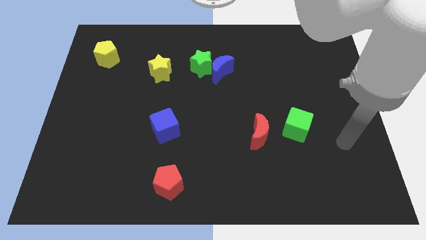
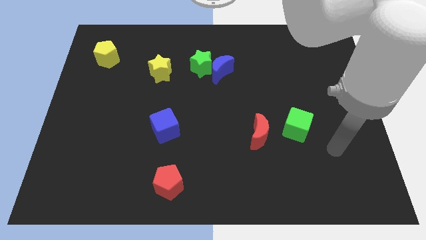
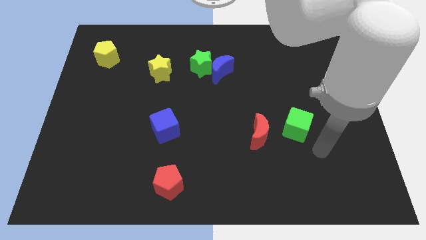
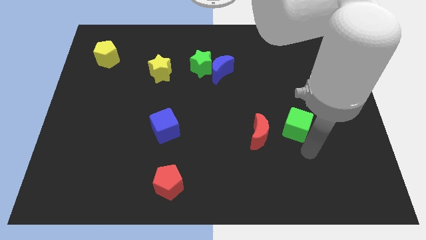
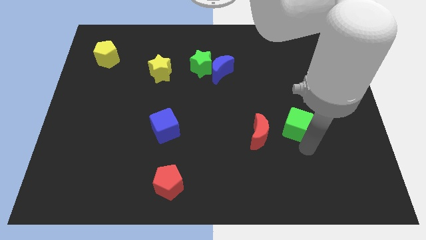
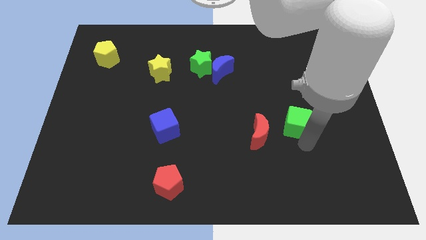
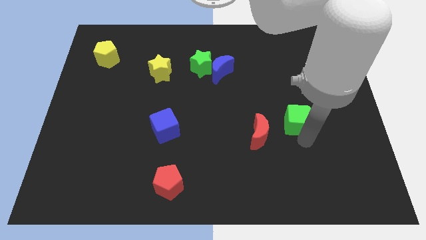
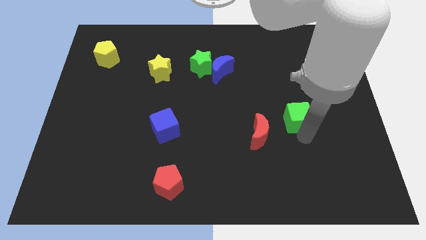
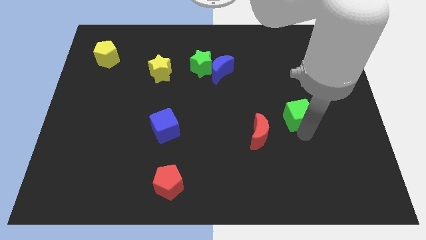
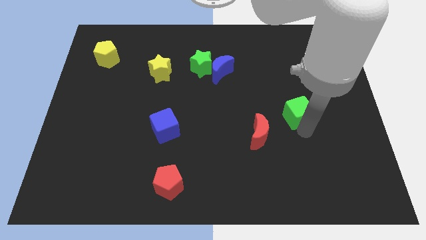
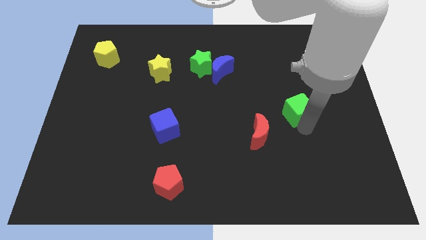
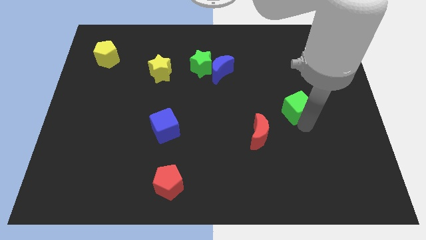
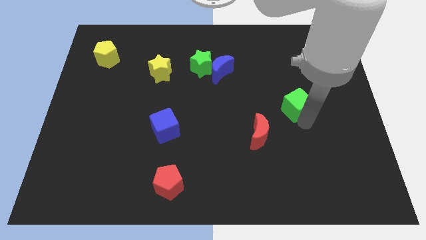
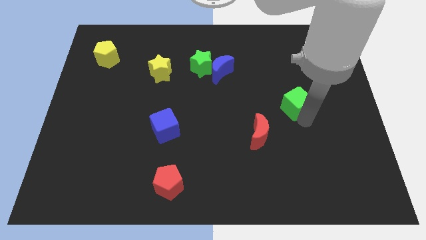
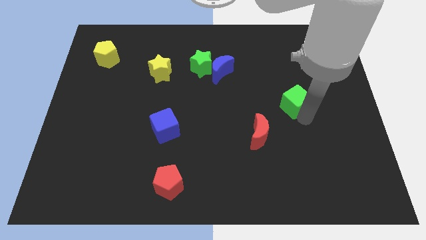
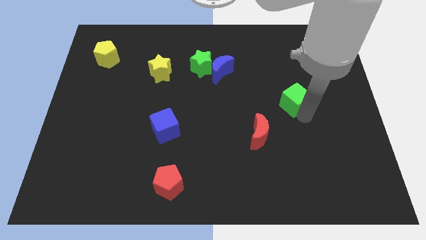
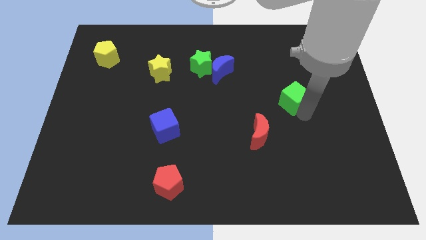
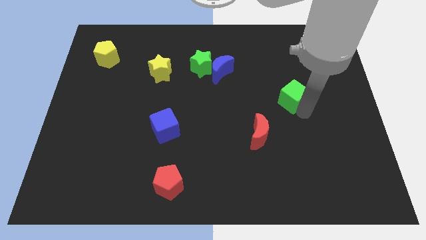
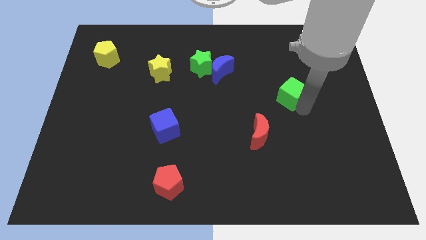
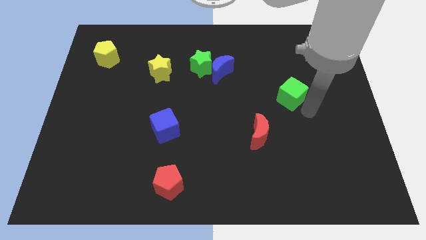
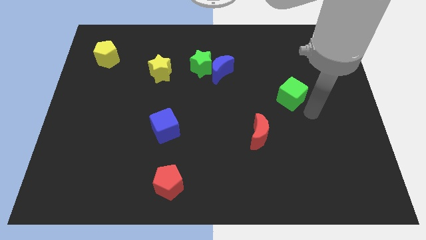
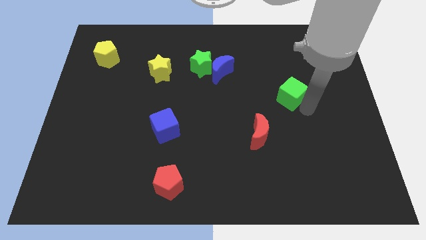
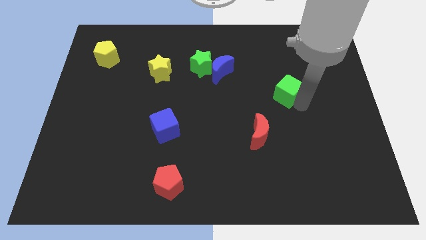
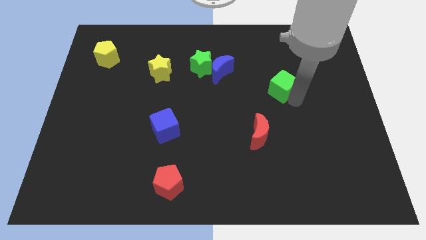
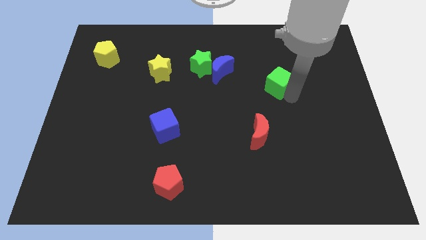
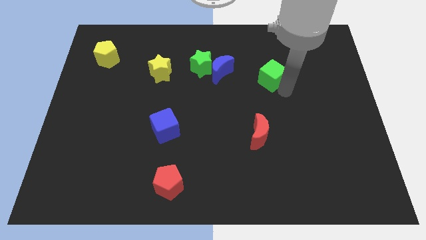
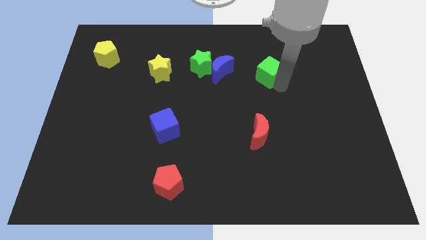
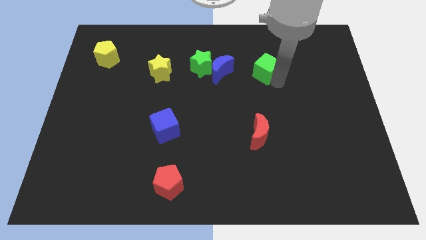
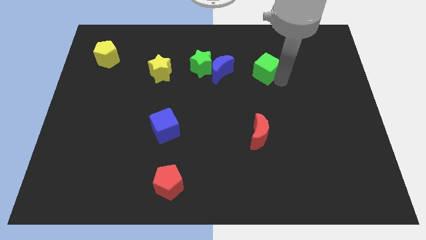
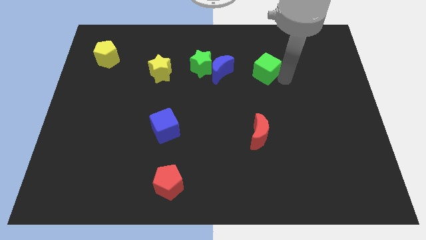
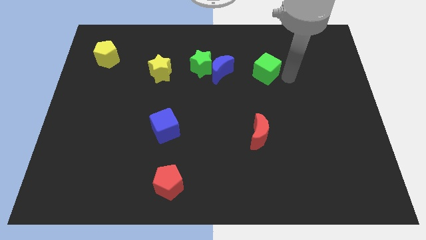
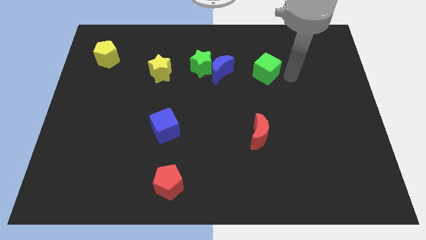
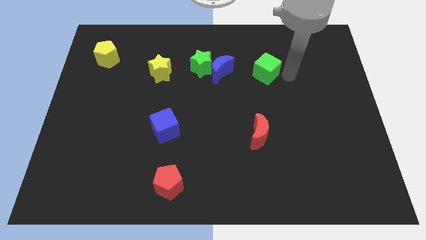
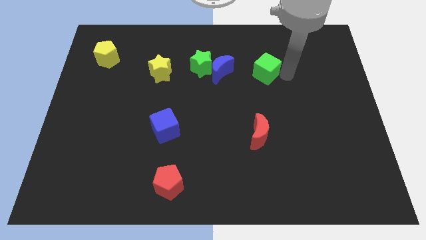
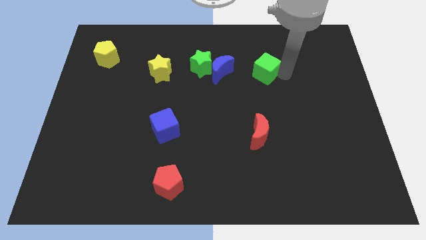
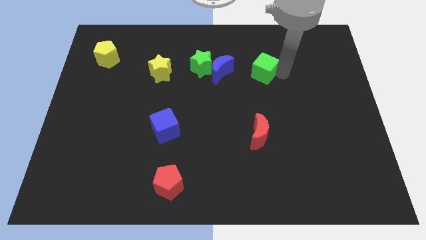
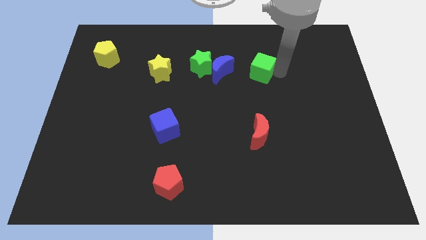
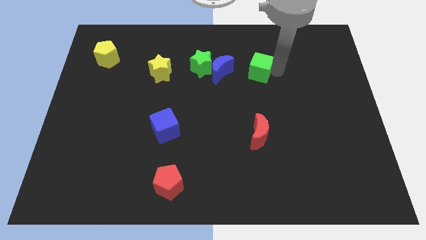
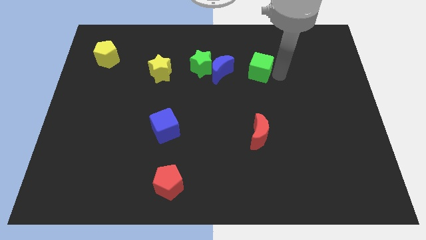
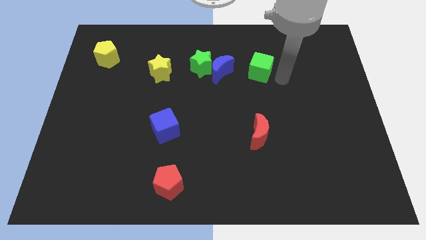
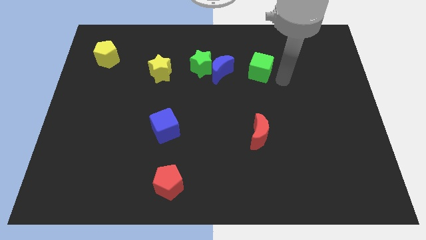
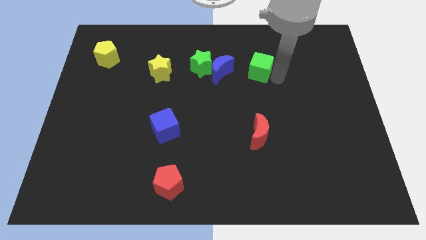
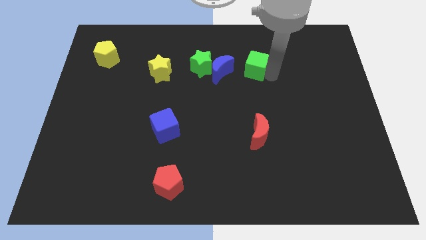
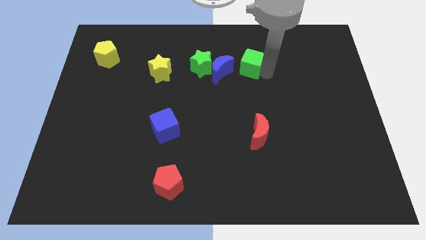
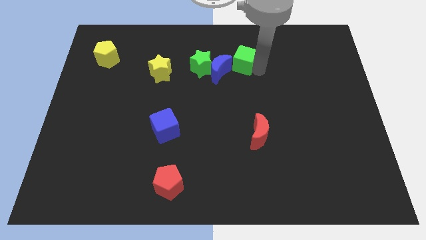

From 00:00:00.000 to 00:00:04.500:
push the green cube upwards and left

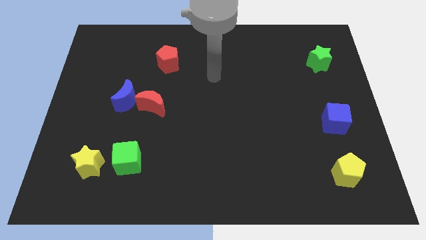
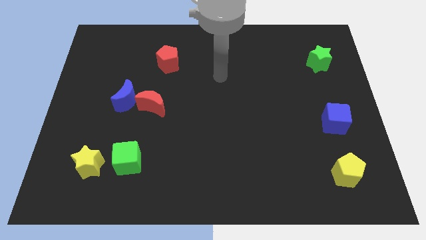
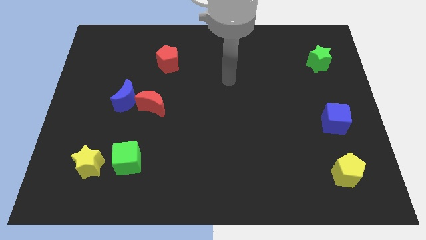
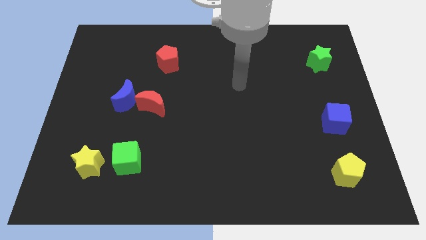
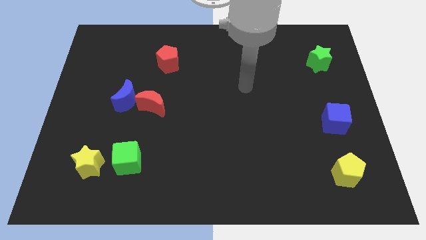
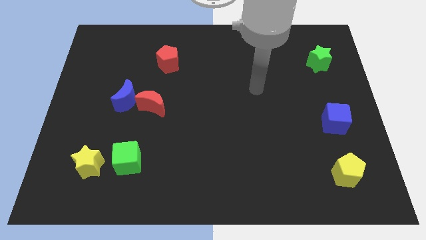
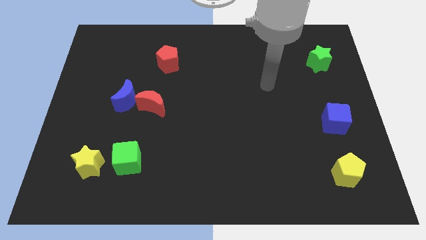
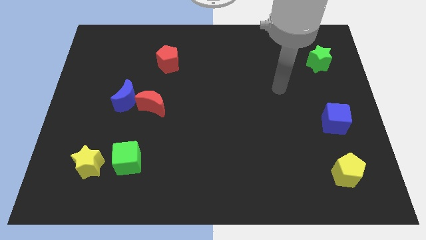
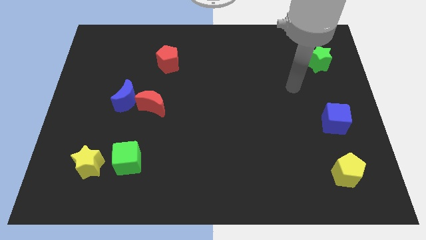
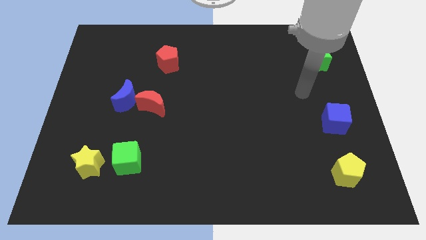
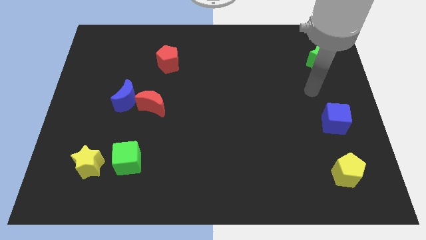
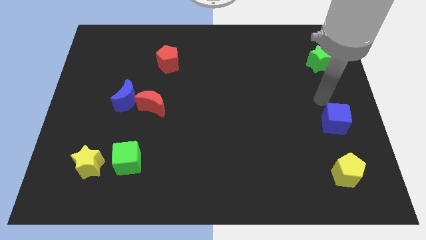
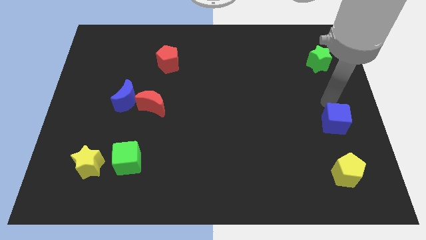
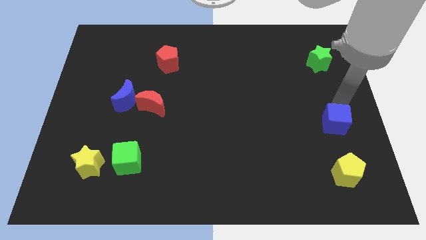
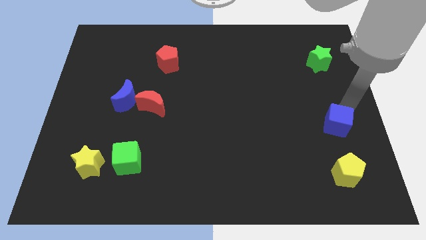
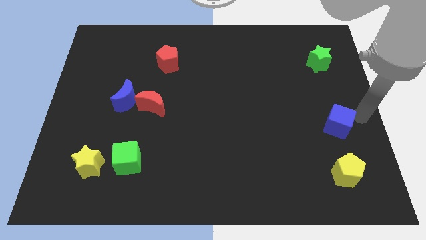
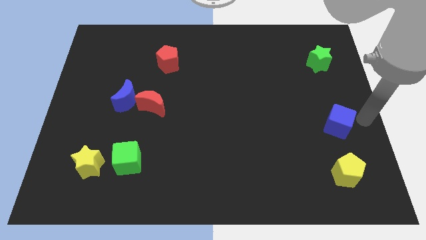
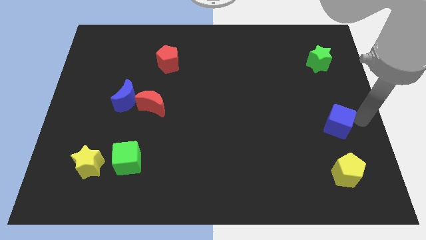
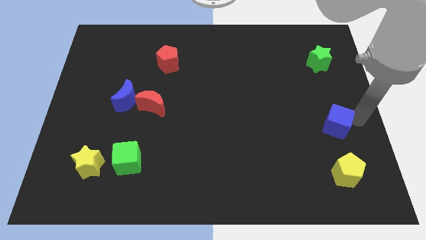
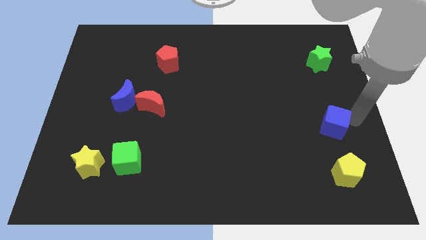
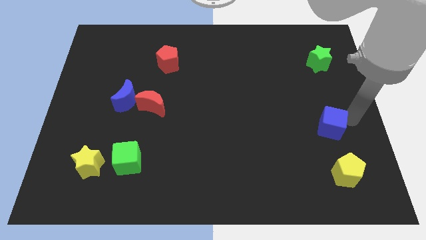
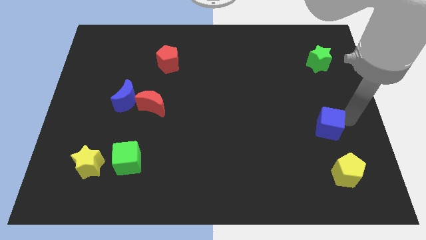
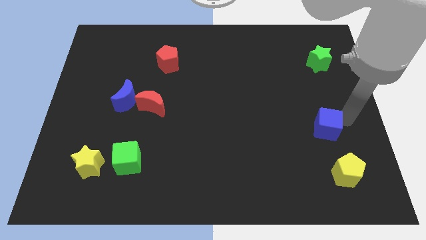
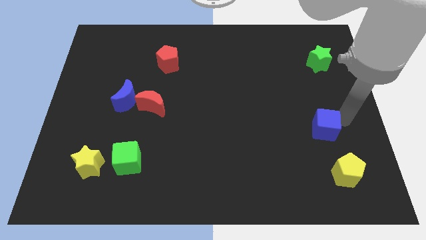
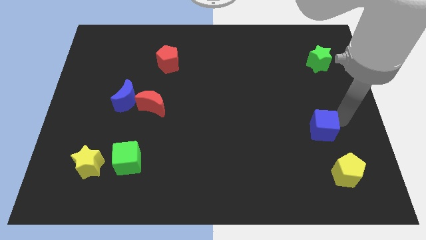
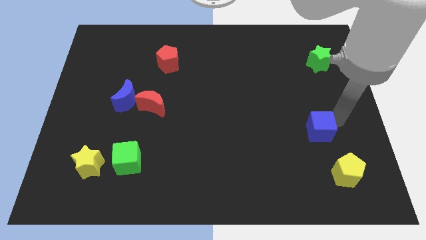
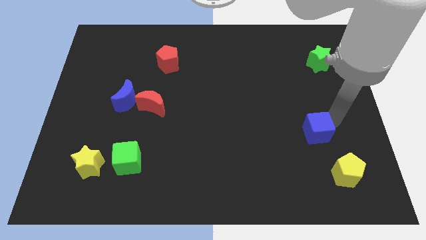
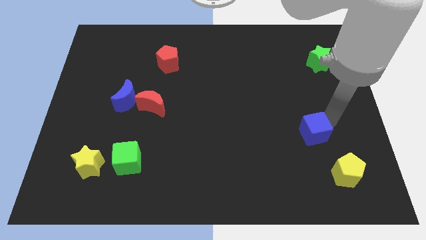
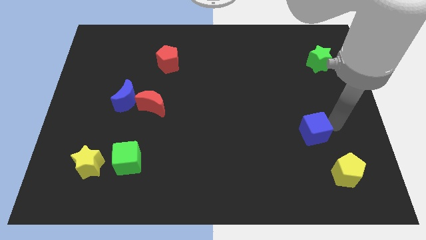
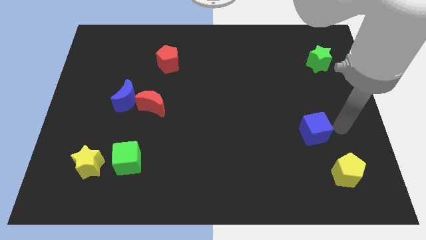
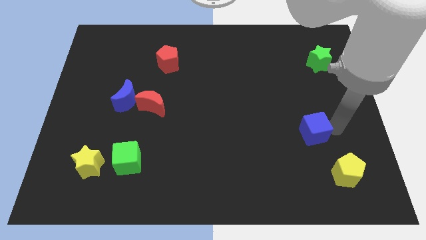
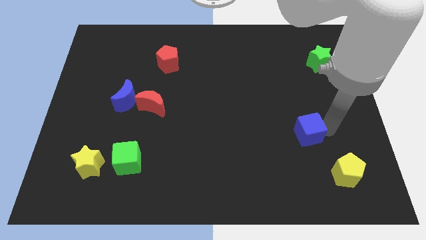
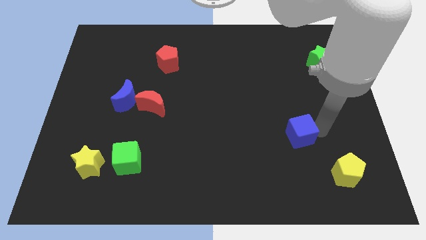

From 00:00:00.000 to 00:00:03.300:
slightly push the blue cube left

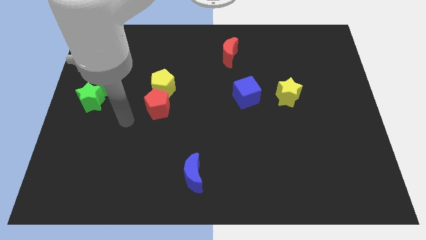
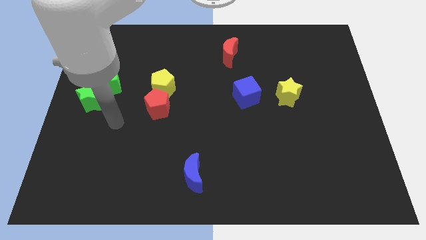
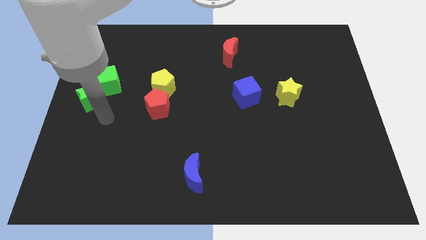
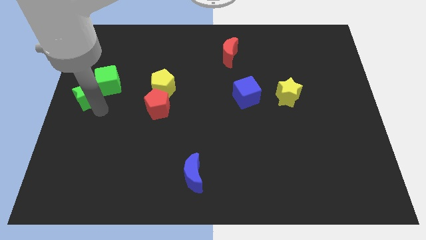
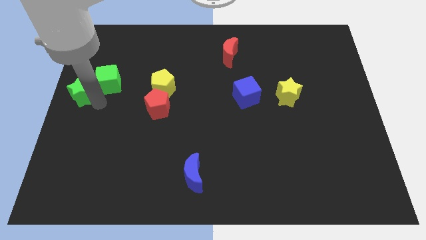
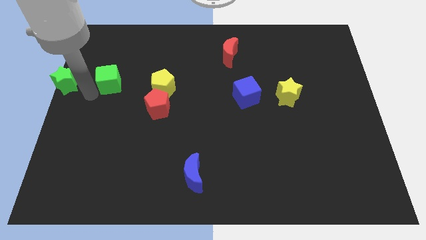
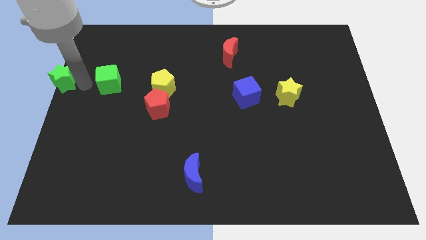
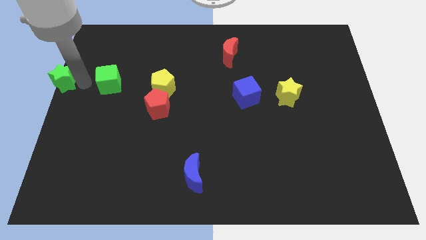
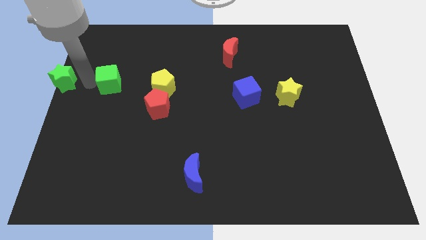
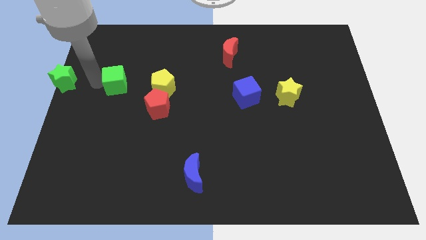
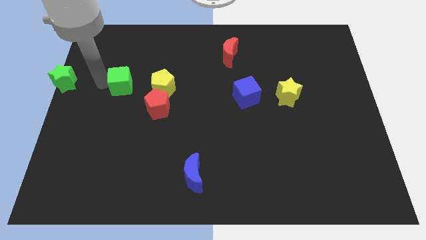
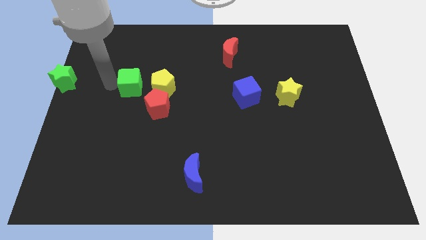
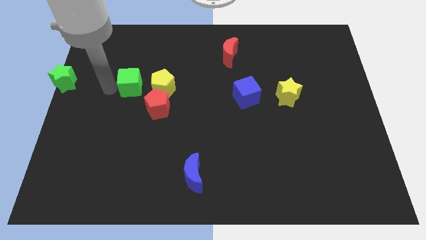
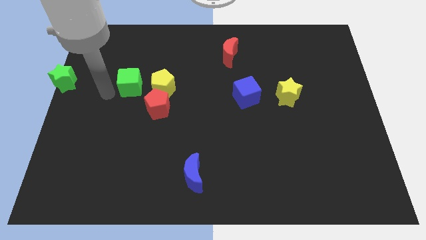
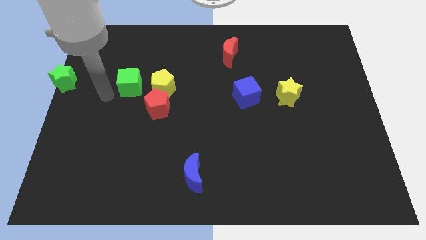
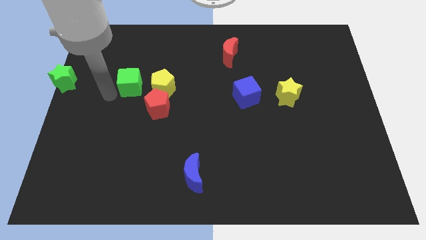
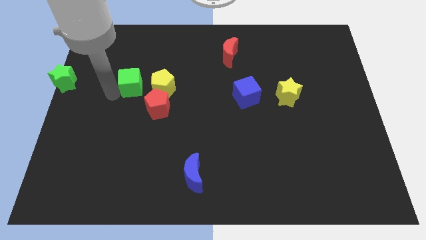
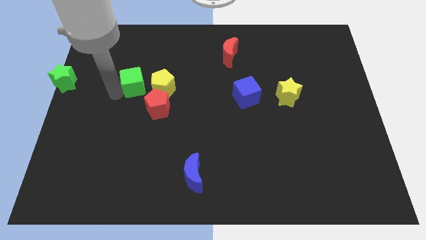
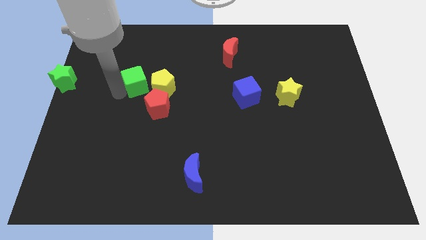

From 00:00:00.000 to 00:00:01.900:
slide the green cube slightly to the right
